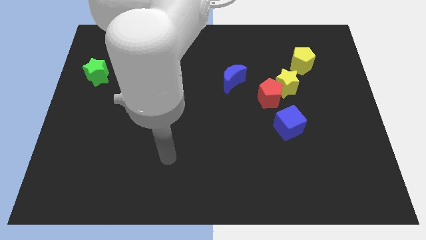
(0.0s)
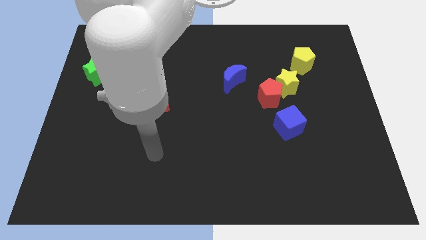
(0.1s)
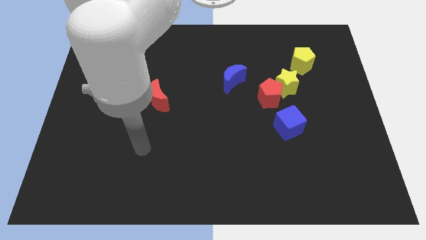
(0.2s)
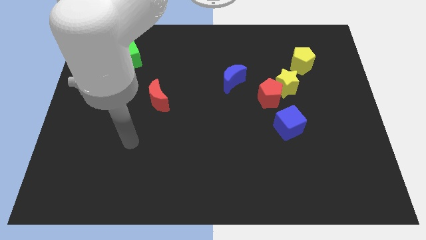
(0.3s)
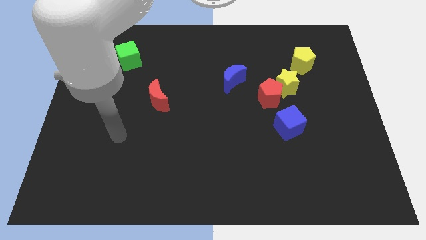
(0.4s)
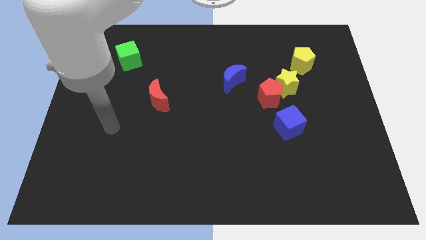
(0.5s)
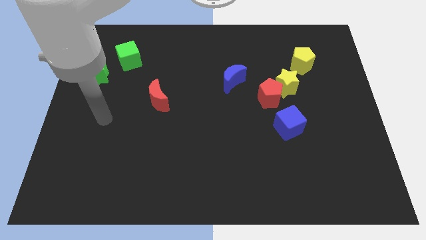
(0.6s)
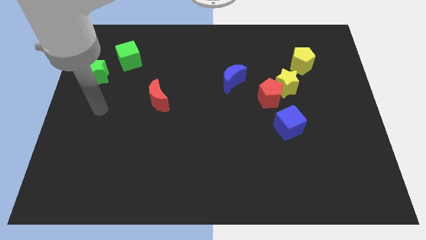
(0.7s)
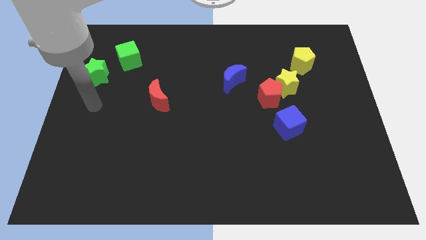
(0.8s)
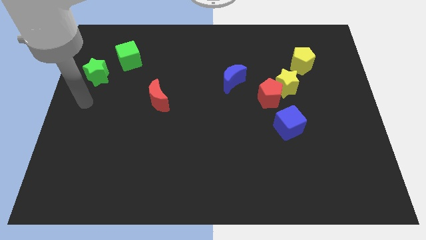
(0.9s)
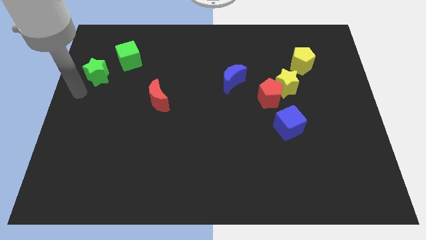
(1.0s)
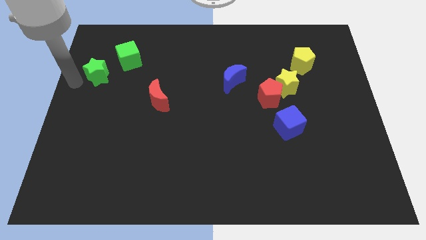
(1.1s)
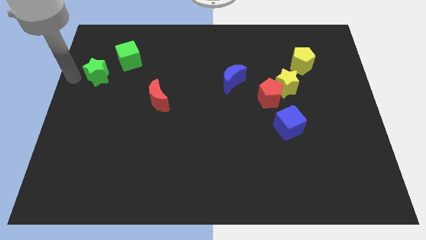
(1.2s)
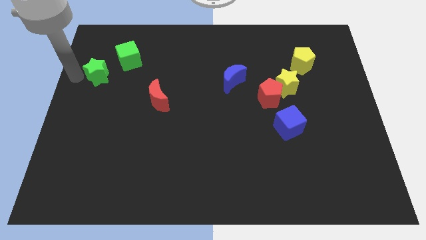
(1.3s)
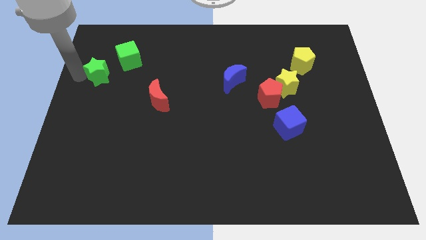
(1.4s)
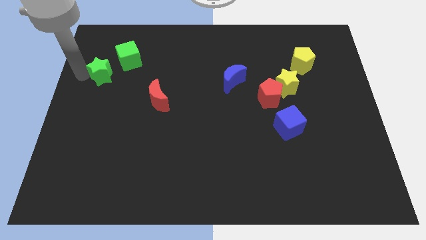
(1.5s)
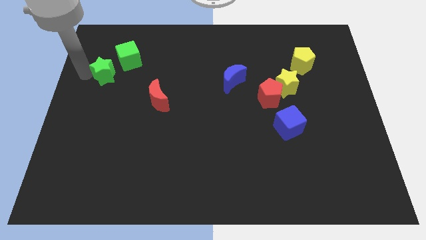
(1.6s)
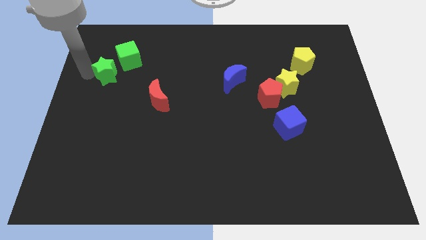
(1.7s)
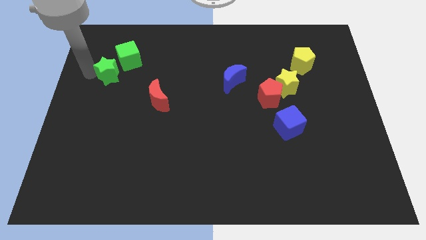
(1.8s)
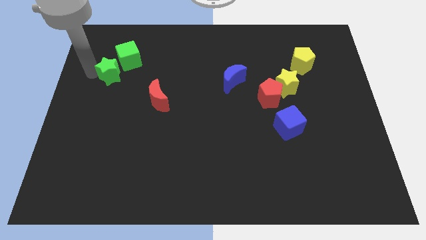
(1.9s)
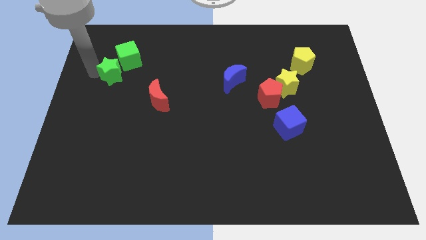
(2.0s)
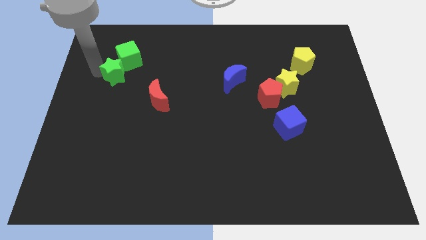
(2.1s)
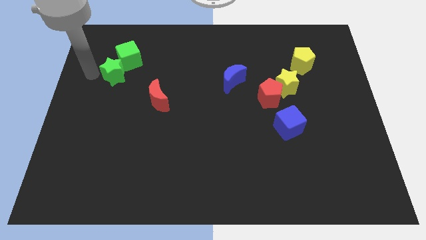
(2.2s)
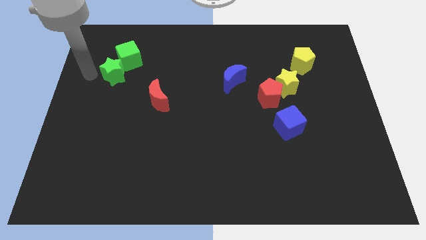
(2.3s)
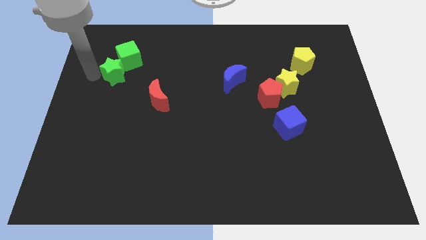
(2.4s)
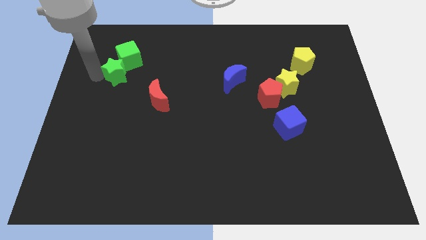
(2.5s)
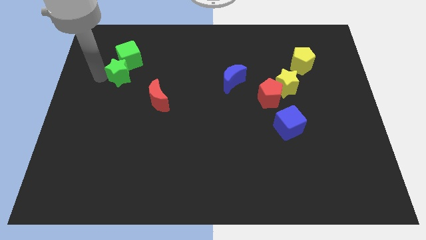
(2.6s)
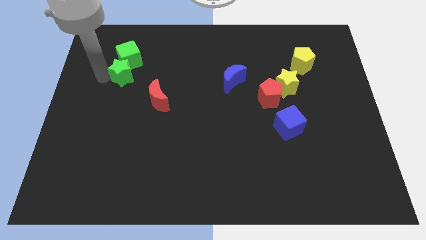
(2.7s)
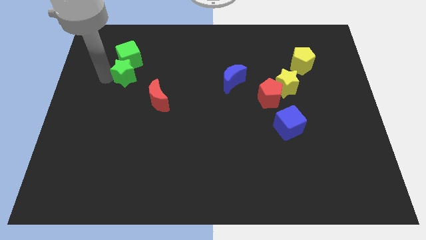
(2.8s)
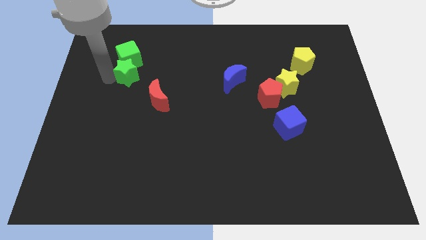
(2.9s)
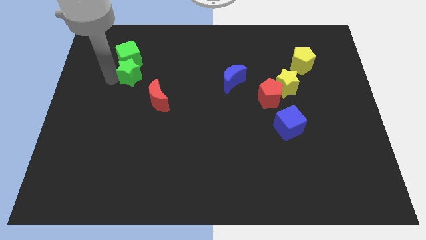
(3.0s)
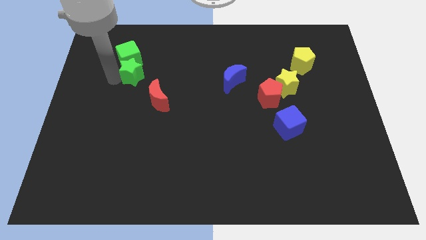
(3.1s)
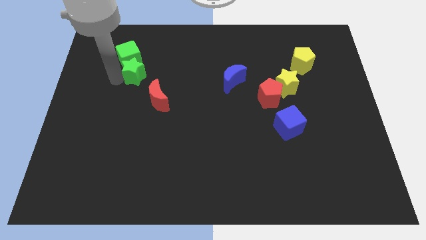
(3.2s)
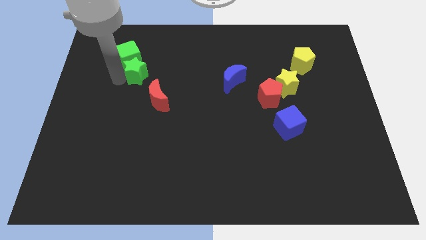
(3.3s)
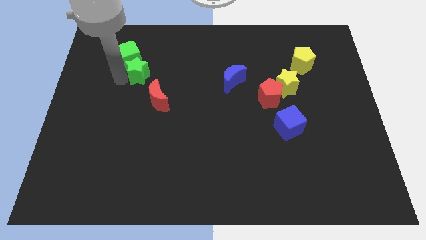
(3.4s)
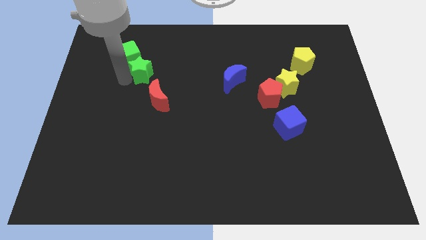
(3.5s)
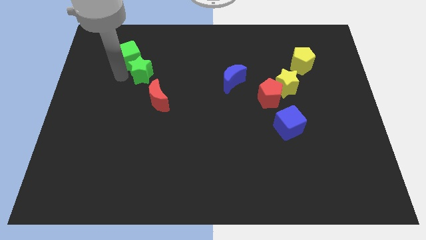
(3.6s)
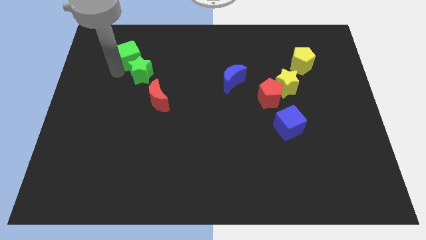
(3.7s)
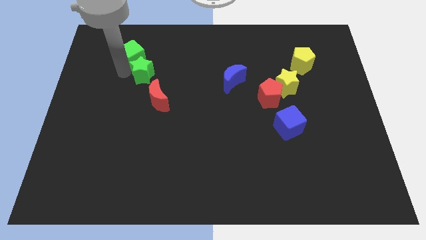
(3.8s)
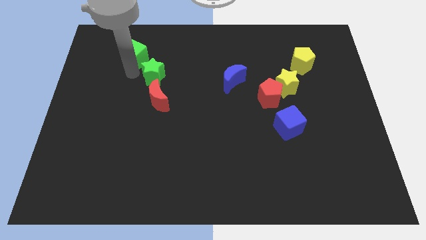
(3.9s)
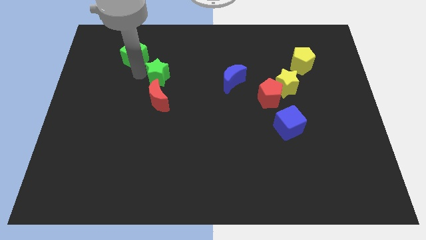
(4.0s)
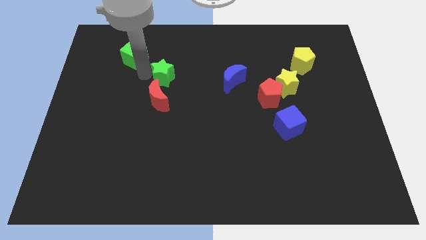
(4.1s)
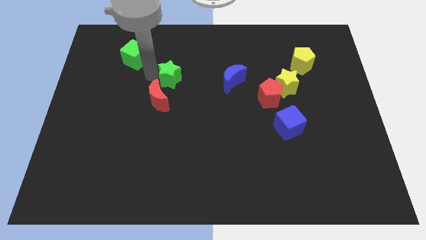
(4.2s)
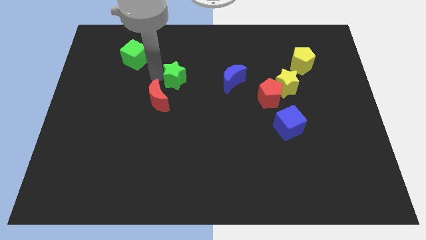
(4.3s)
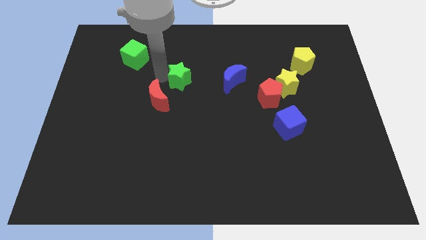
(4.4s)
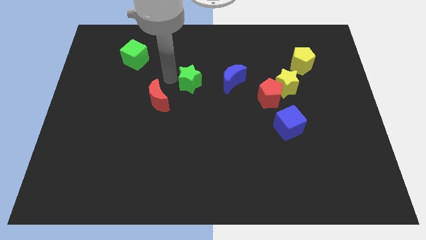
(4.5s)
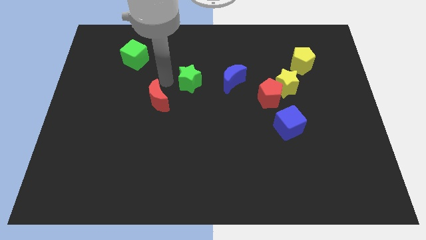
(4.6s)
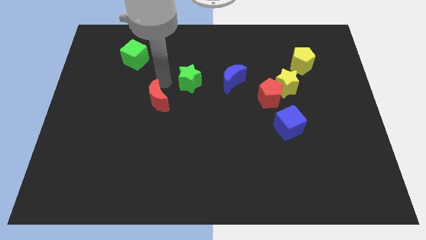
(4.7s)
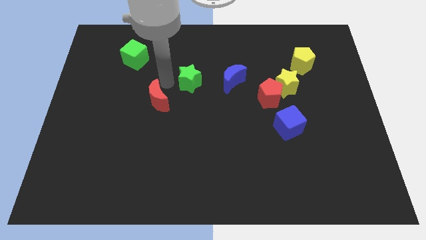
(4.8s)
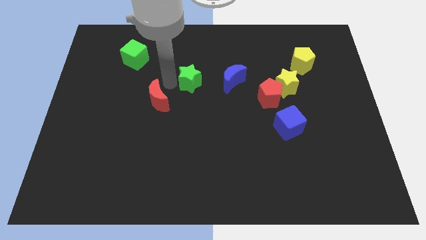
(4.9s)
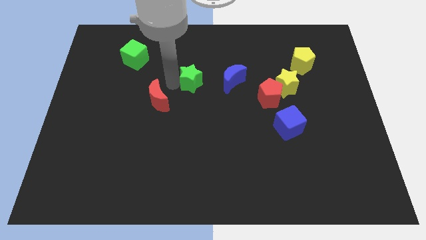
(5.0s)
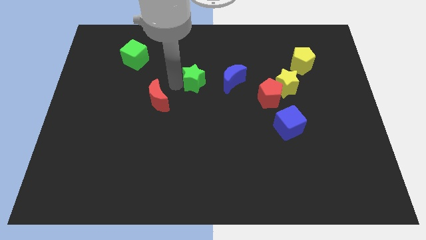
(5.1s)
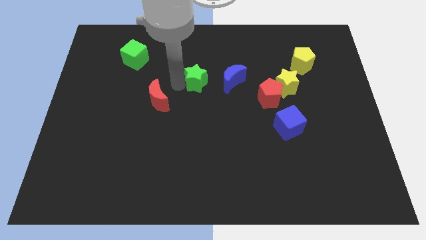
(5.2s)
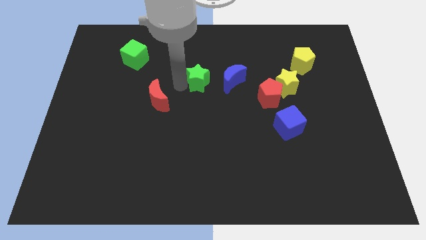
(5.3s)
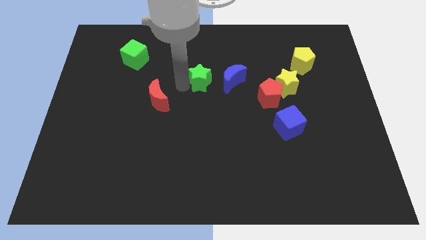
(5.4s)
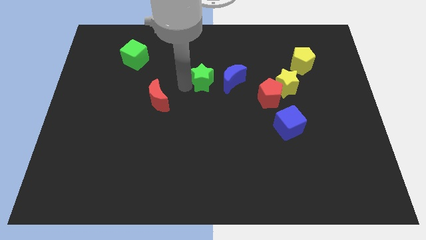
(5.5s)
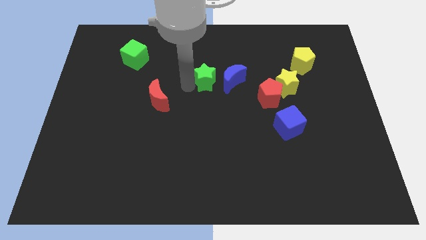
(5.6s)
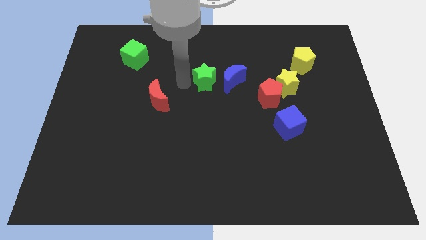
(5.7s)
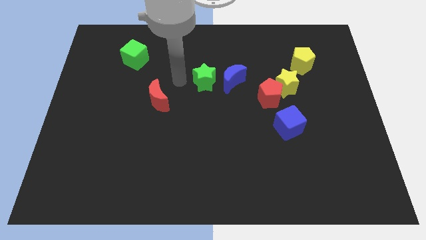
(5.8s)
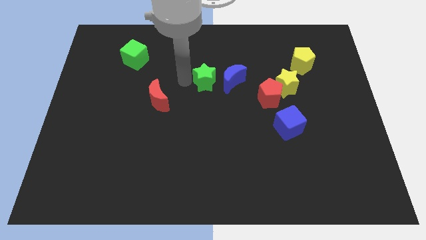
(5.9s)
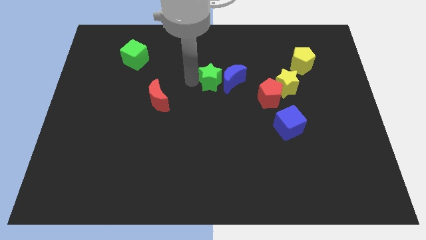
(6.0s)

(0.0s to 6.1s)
slide the green star towards the blue moon

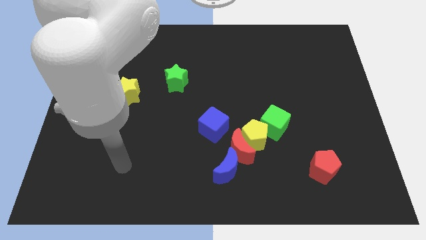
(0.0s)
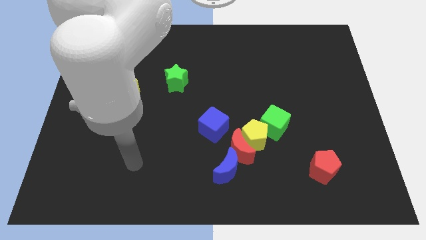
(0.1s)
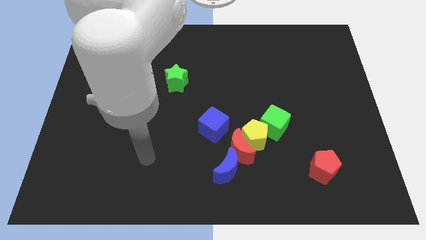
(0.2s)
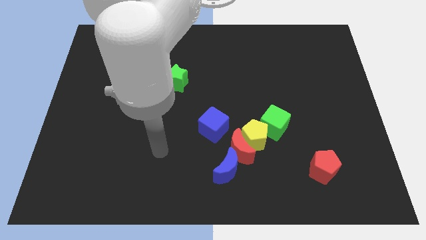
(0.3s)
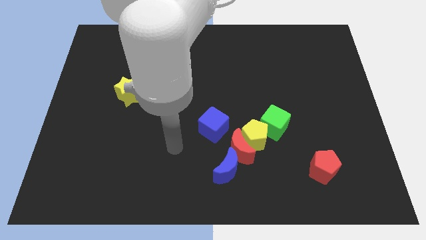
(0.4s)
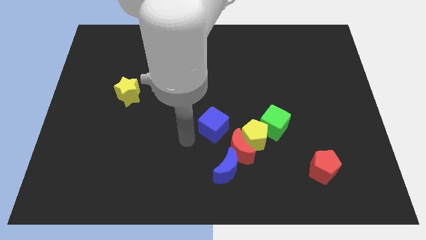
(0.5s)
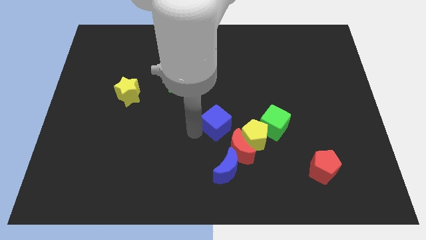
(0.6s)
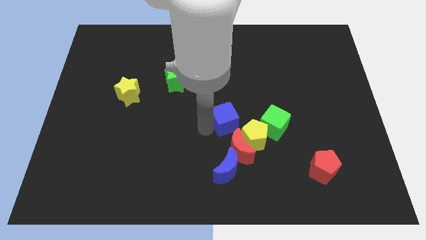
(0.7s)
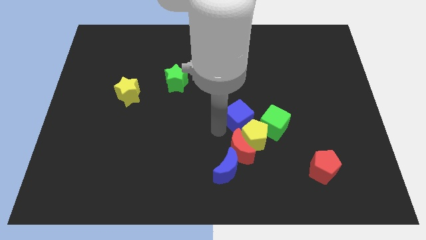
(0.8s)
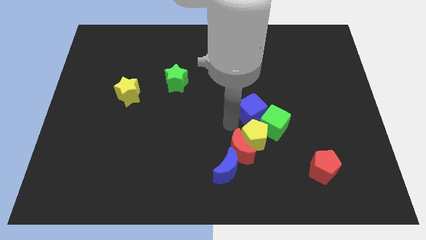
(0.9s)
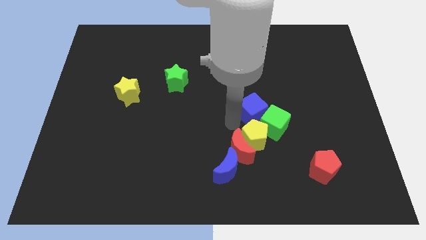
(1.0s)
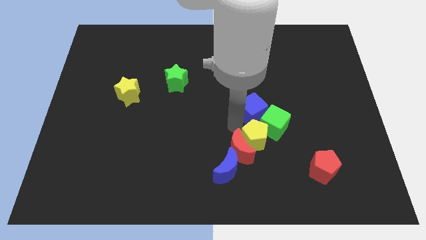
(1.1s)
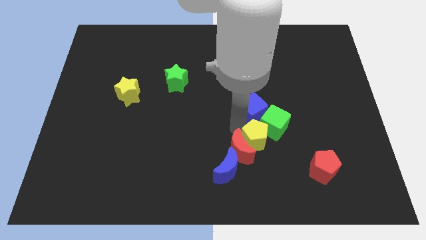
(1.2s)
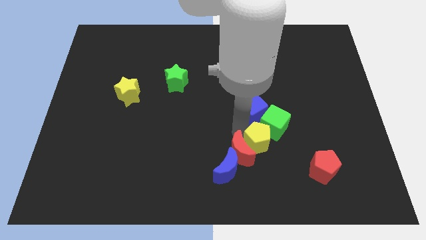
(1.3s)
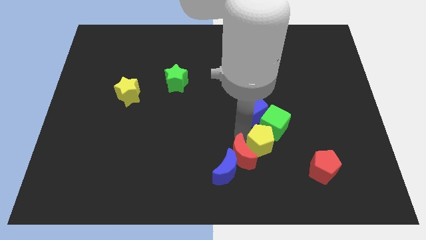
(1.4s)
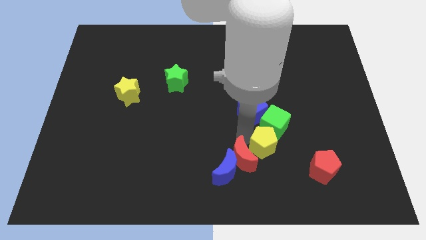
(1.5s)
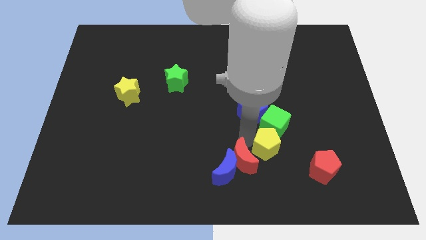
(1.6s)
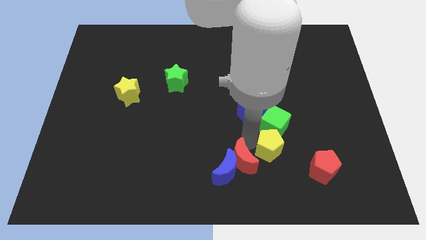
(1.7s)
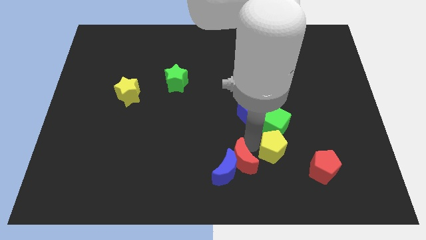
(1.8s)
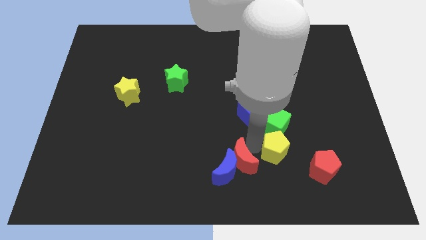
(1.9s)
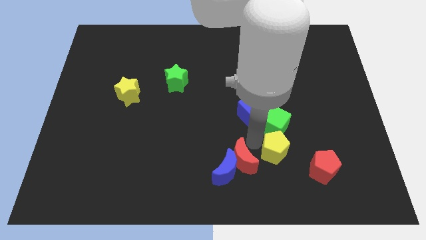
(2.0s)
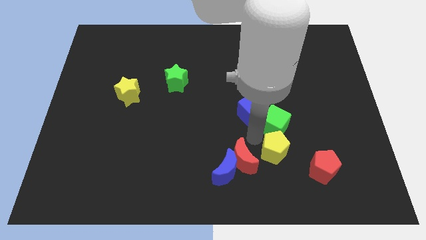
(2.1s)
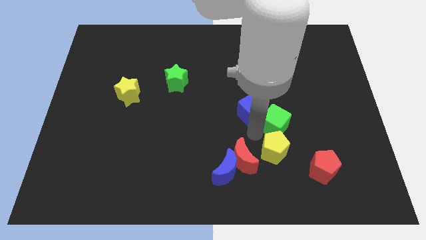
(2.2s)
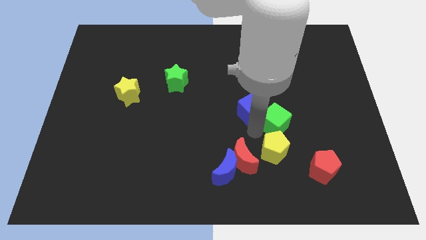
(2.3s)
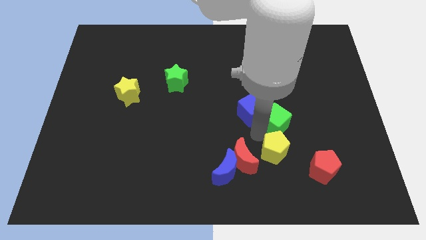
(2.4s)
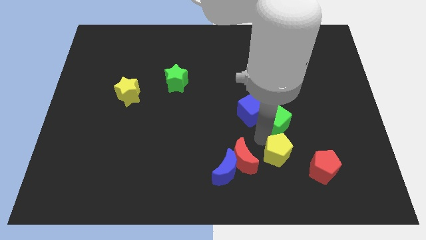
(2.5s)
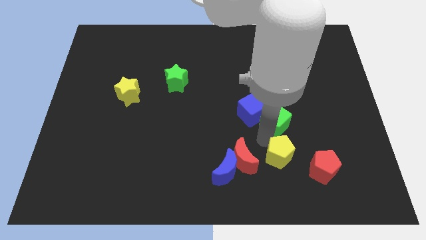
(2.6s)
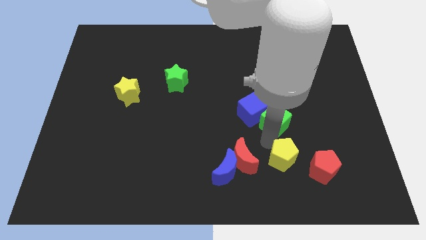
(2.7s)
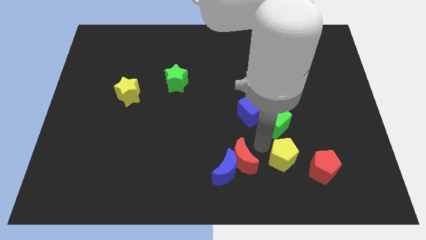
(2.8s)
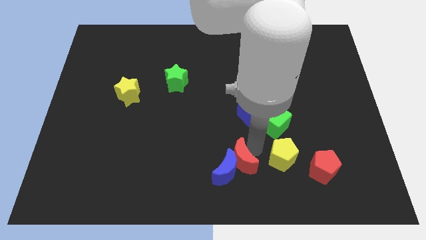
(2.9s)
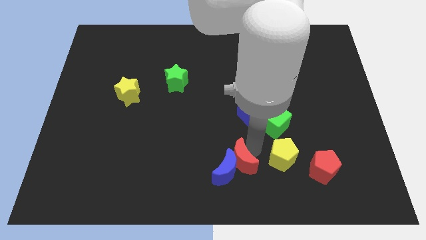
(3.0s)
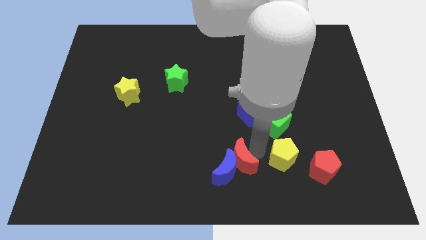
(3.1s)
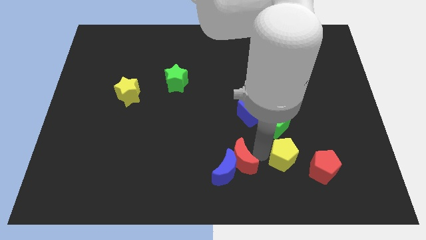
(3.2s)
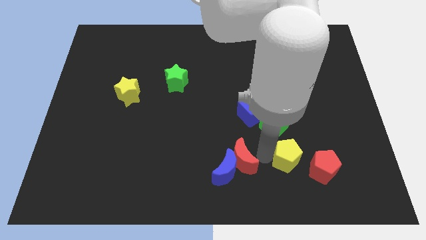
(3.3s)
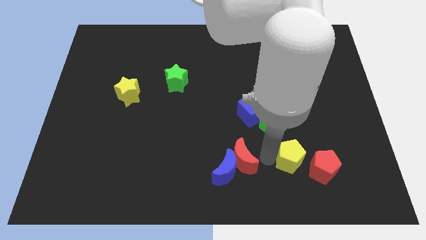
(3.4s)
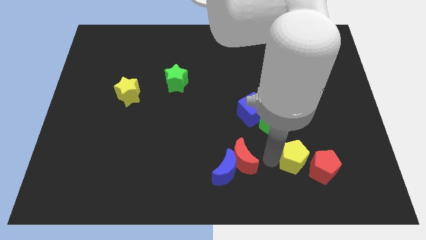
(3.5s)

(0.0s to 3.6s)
push the yellow pentagon next to the red pentagon
